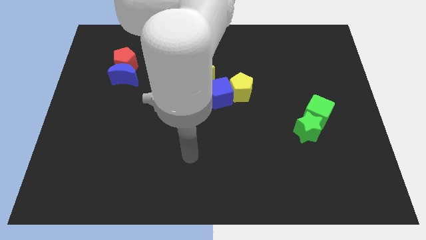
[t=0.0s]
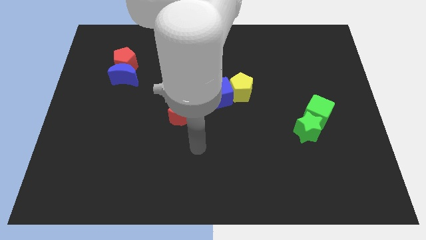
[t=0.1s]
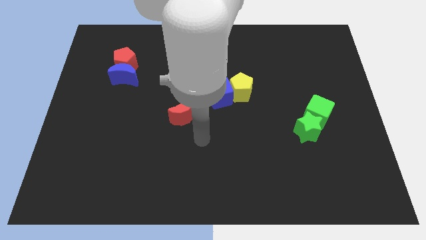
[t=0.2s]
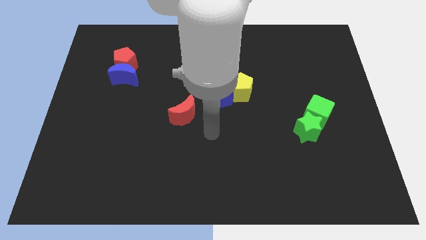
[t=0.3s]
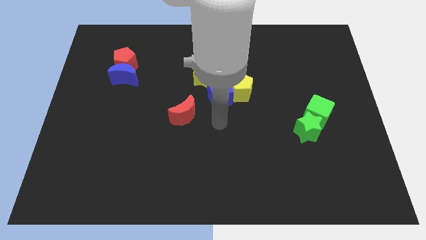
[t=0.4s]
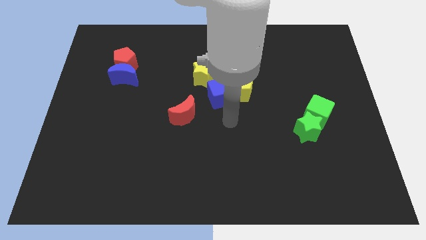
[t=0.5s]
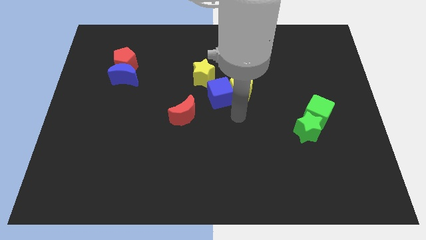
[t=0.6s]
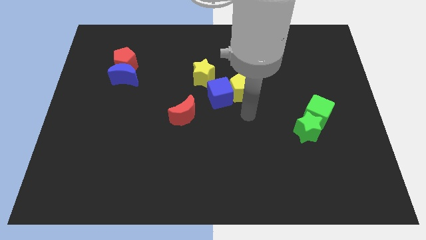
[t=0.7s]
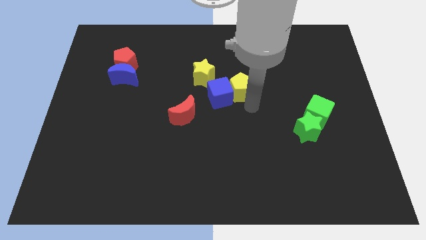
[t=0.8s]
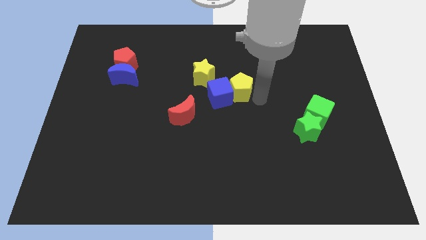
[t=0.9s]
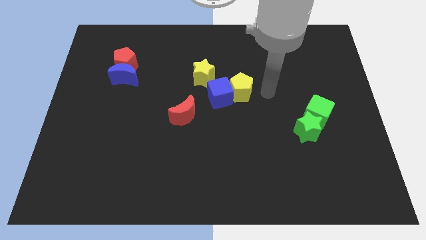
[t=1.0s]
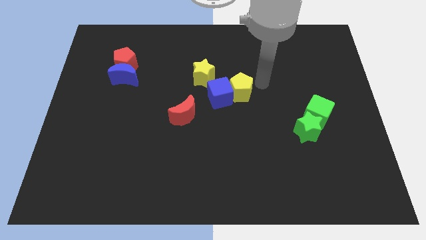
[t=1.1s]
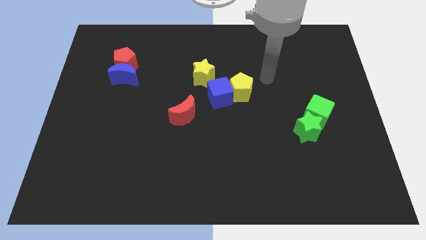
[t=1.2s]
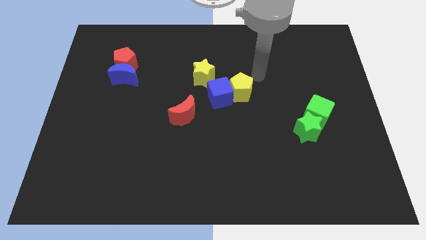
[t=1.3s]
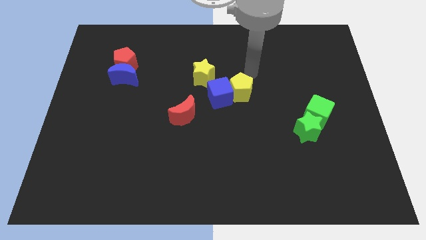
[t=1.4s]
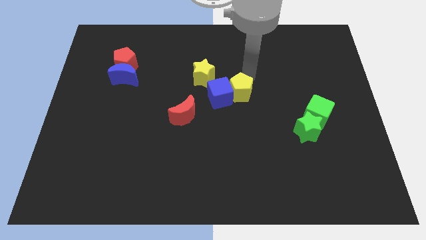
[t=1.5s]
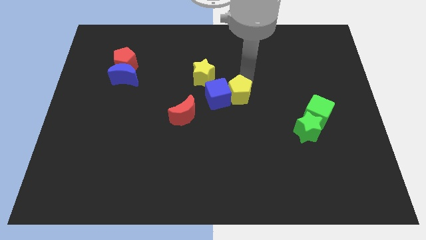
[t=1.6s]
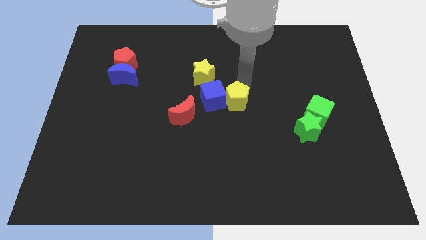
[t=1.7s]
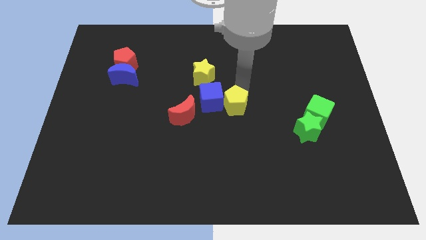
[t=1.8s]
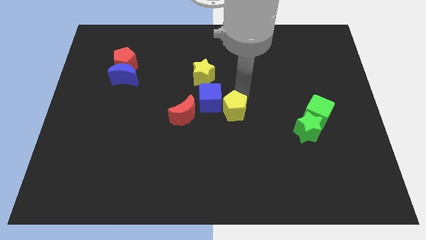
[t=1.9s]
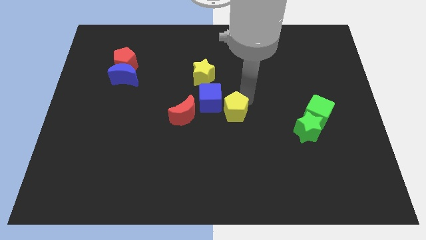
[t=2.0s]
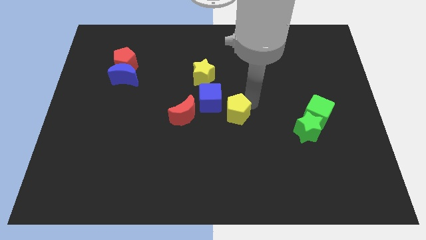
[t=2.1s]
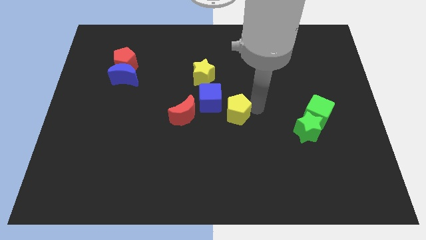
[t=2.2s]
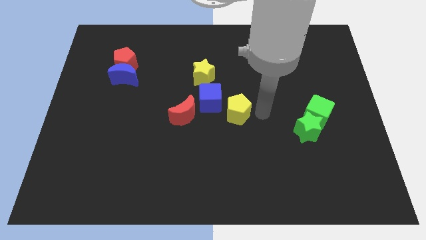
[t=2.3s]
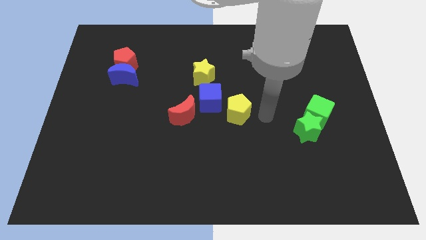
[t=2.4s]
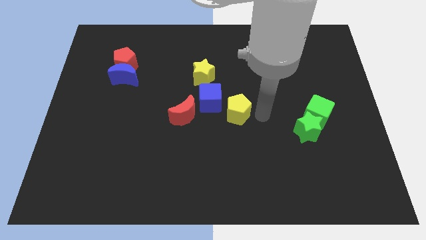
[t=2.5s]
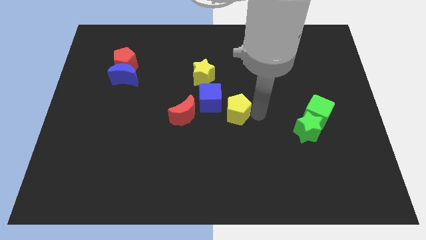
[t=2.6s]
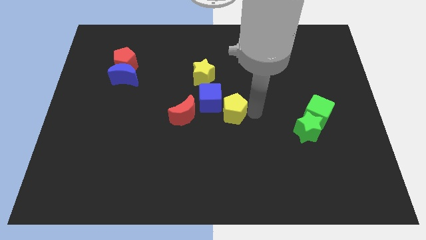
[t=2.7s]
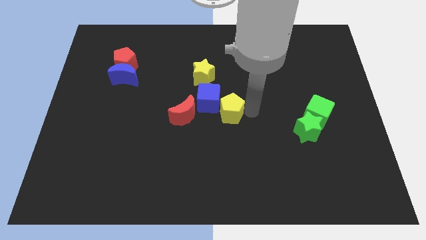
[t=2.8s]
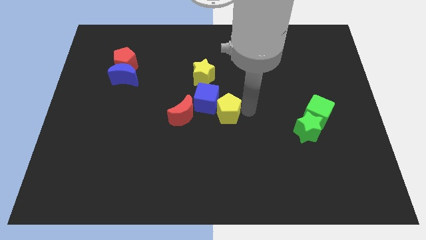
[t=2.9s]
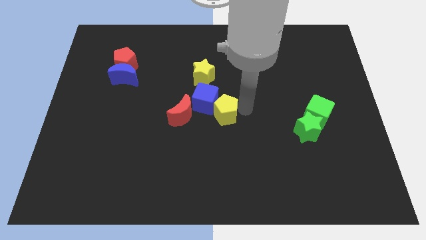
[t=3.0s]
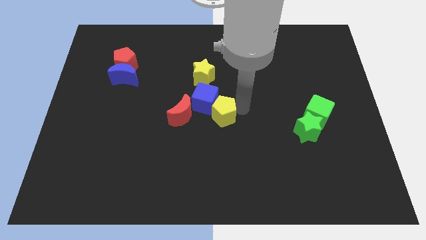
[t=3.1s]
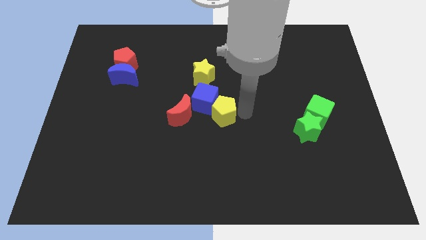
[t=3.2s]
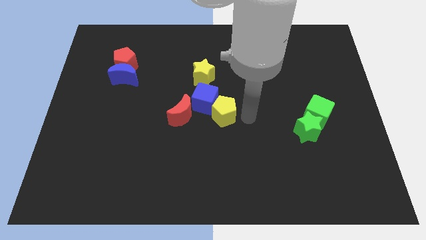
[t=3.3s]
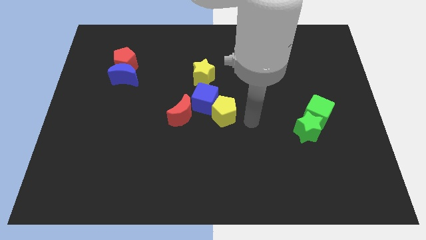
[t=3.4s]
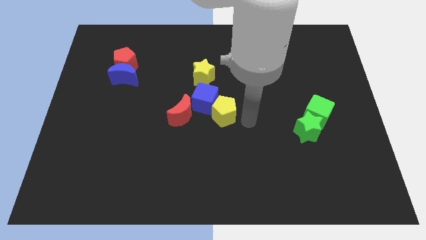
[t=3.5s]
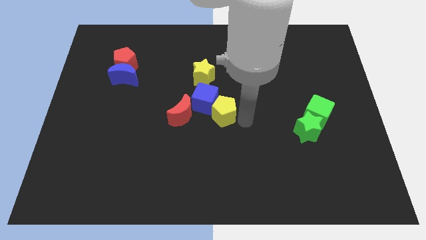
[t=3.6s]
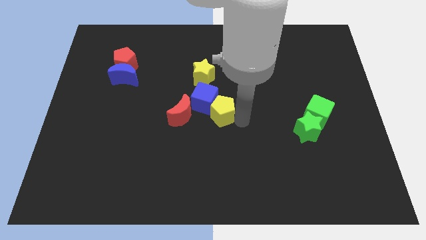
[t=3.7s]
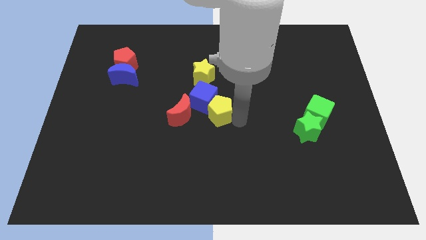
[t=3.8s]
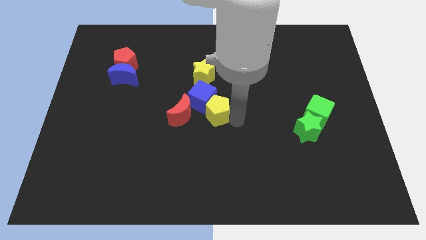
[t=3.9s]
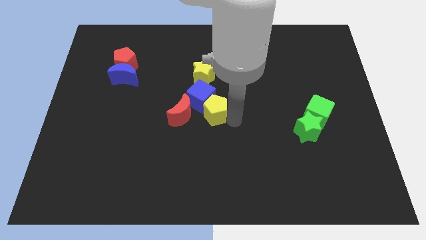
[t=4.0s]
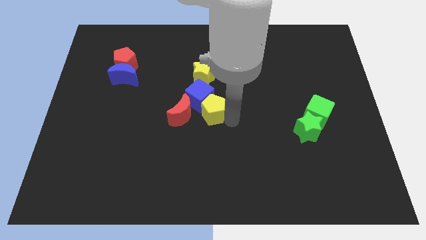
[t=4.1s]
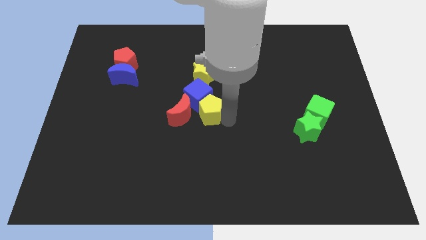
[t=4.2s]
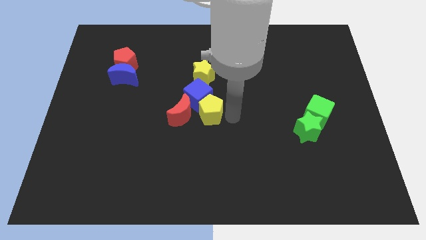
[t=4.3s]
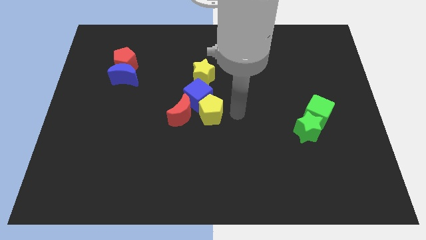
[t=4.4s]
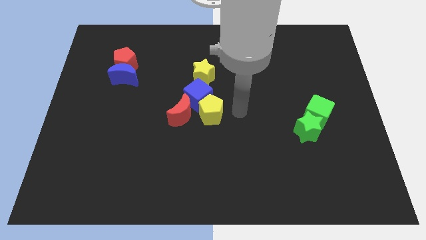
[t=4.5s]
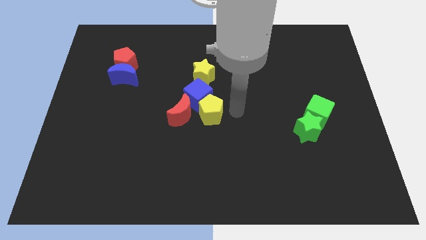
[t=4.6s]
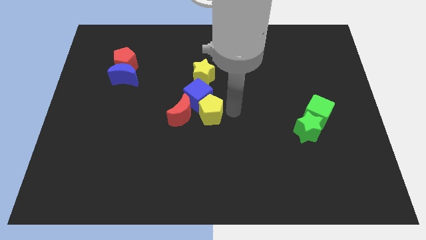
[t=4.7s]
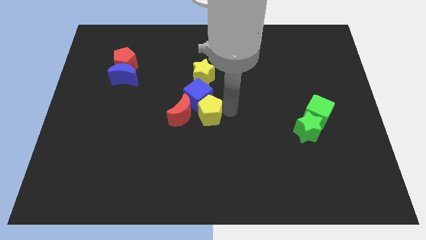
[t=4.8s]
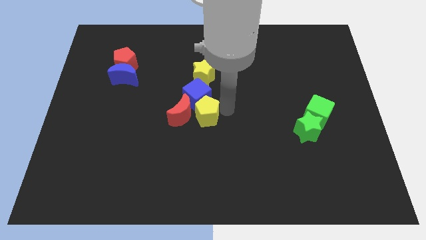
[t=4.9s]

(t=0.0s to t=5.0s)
push the yellow pentagon next to the red moon

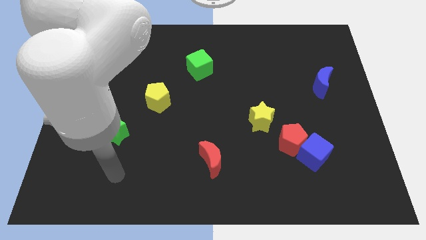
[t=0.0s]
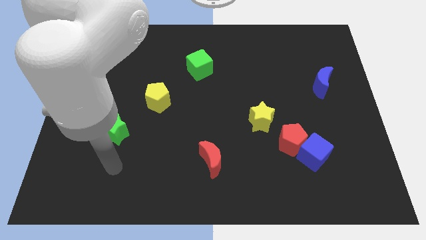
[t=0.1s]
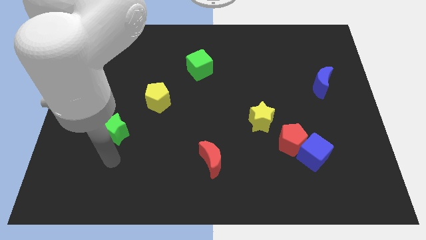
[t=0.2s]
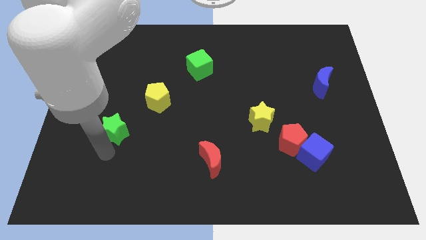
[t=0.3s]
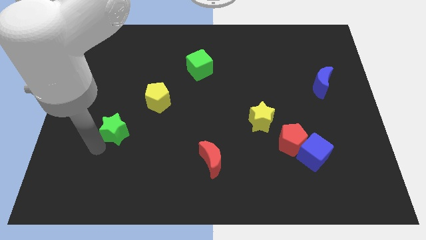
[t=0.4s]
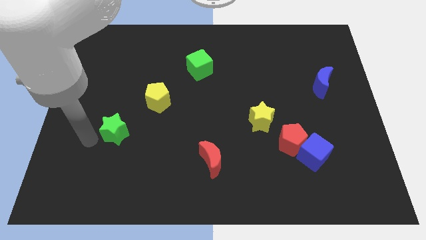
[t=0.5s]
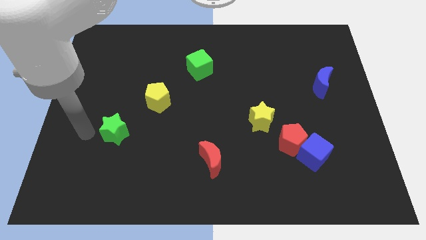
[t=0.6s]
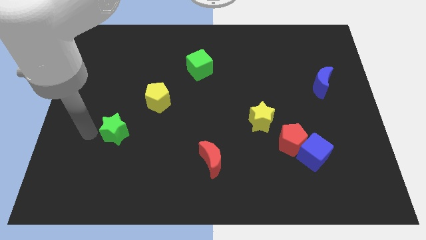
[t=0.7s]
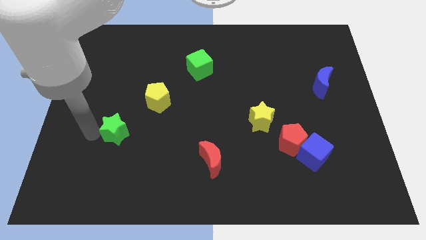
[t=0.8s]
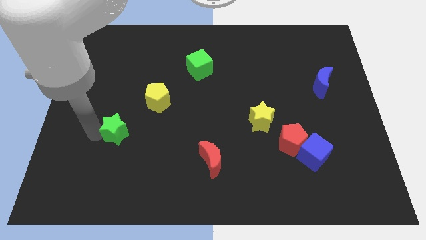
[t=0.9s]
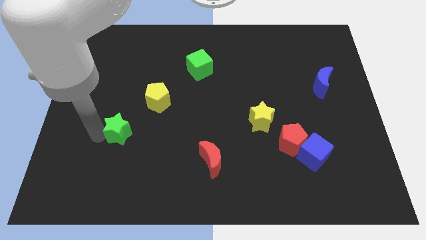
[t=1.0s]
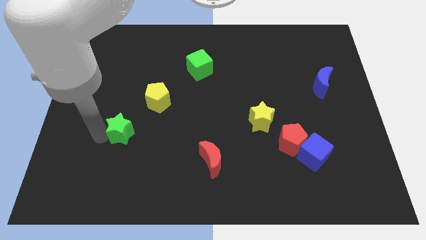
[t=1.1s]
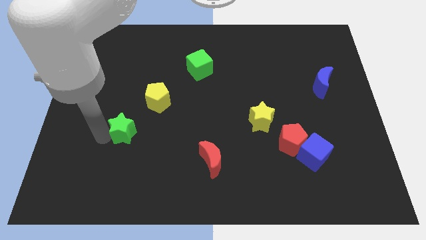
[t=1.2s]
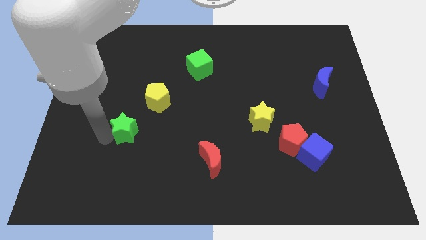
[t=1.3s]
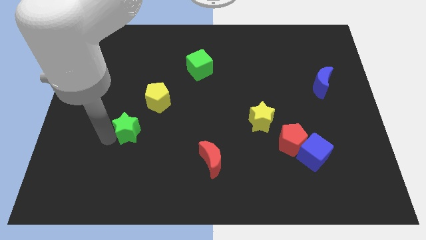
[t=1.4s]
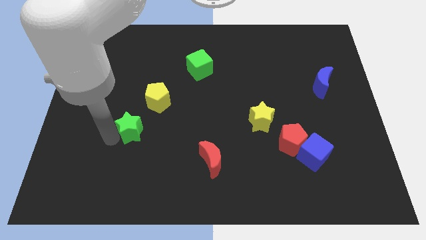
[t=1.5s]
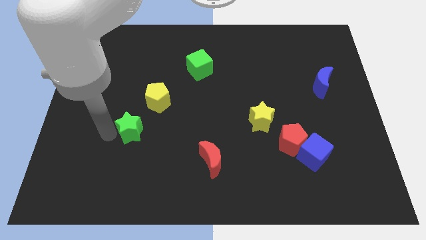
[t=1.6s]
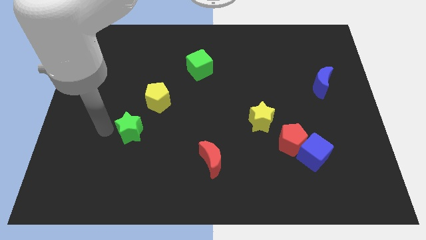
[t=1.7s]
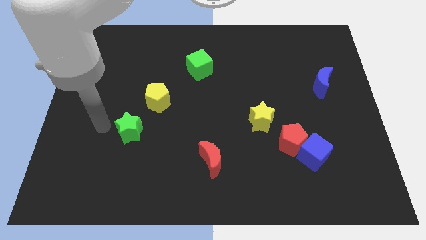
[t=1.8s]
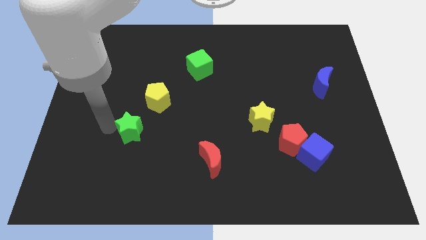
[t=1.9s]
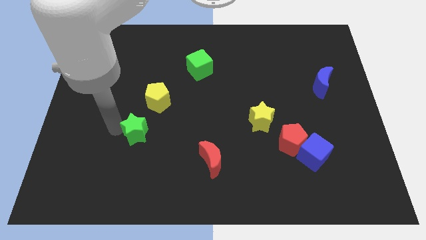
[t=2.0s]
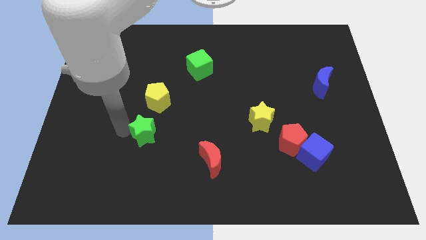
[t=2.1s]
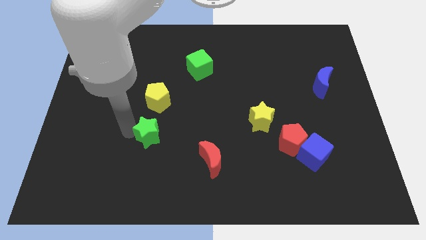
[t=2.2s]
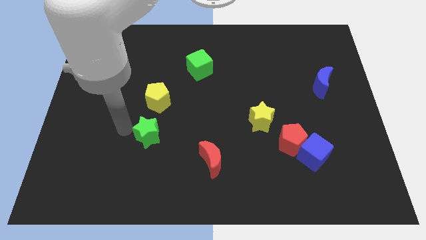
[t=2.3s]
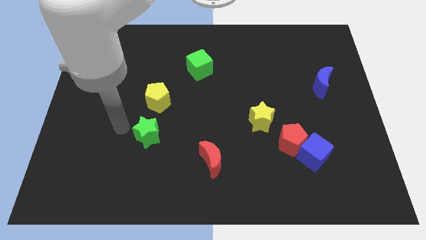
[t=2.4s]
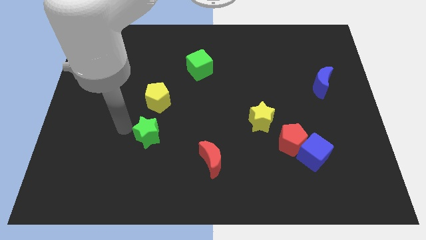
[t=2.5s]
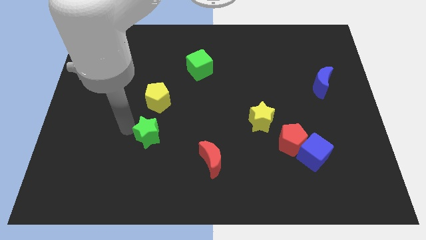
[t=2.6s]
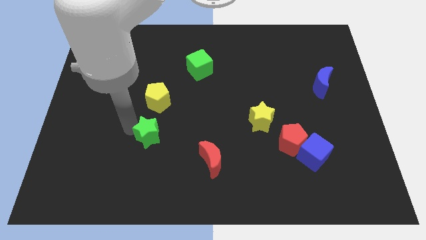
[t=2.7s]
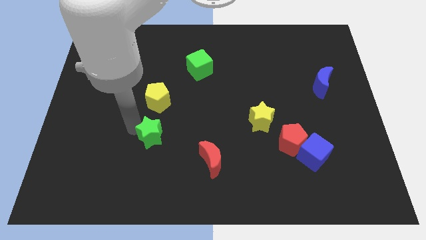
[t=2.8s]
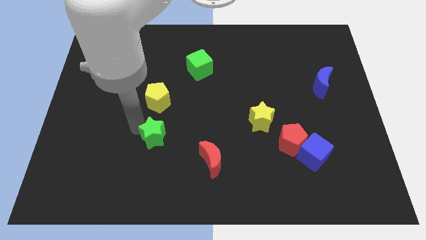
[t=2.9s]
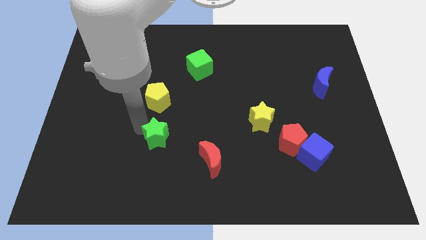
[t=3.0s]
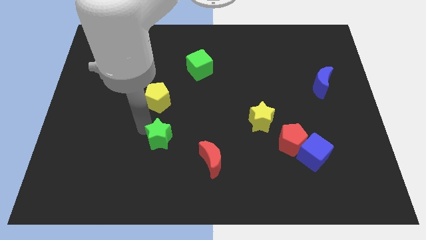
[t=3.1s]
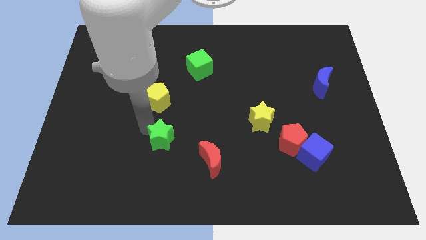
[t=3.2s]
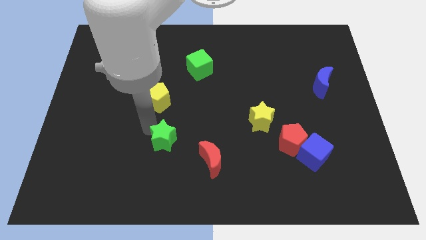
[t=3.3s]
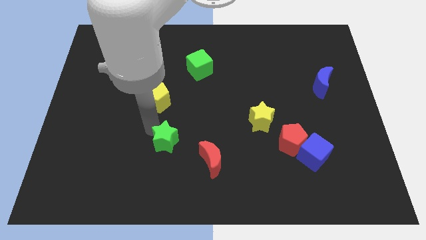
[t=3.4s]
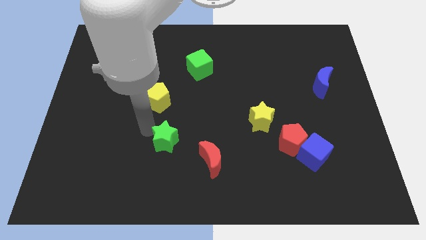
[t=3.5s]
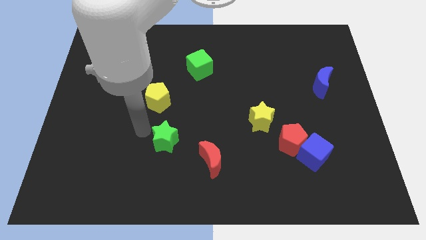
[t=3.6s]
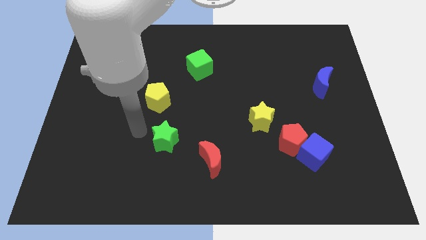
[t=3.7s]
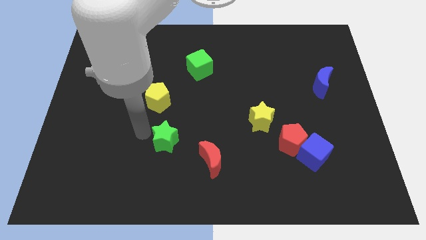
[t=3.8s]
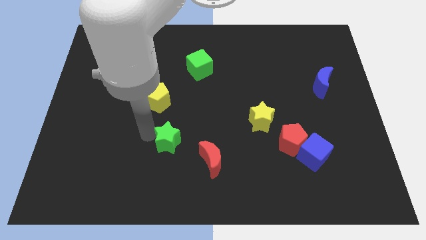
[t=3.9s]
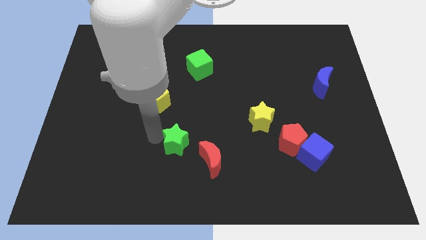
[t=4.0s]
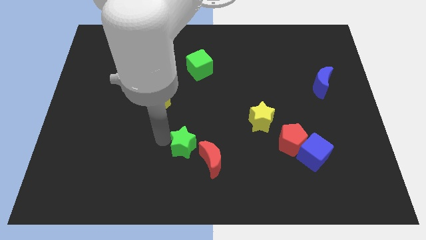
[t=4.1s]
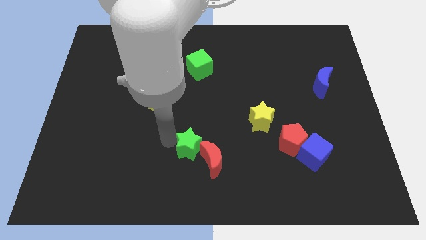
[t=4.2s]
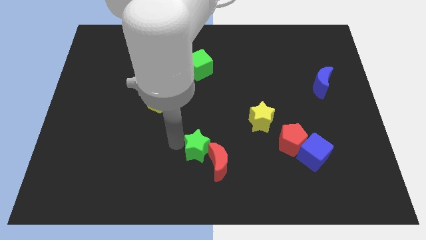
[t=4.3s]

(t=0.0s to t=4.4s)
put the green star close to the red moon
